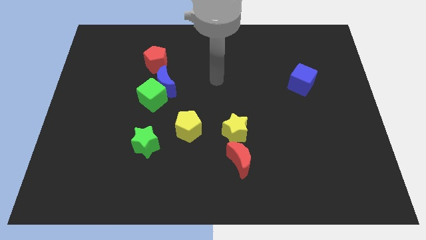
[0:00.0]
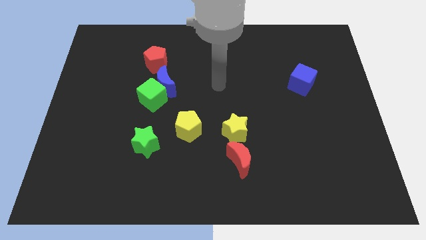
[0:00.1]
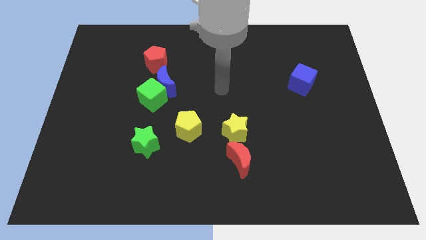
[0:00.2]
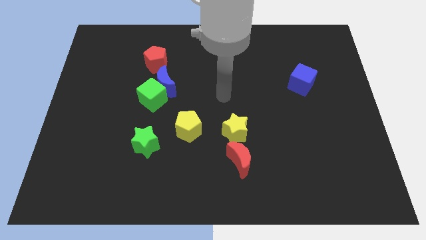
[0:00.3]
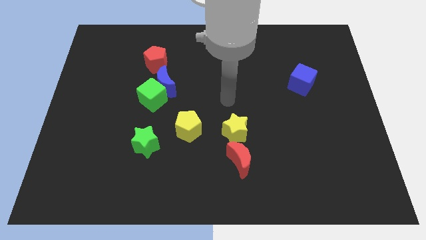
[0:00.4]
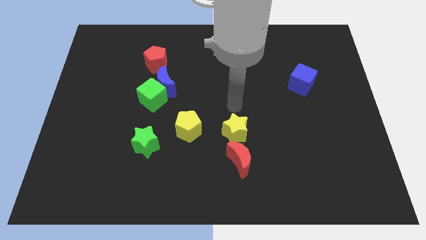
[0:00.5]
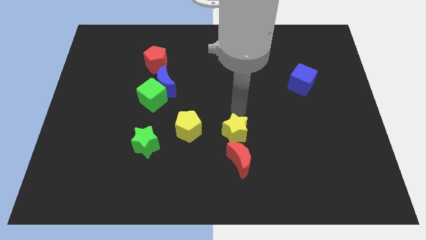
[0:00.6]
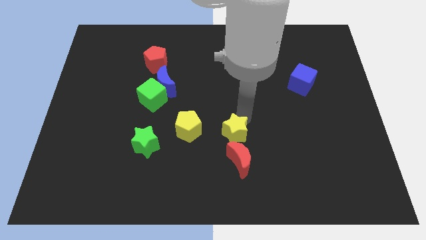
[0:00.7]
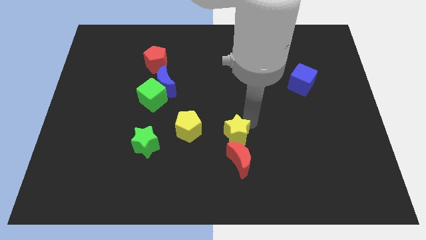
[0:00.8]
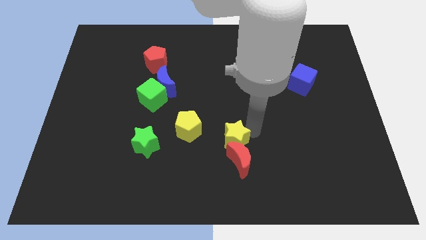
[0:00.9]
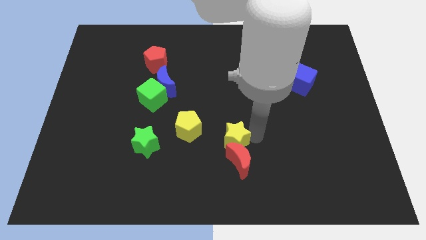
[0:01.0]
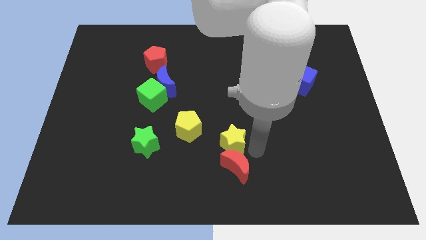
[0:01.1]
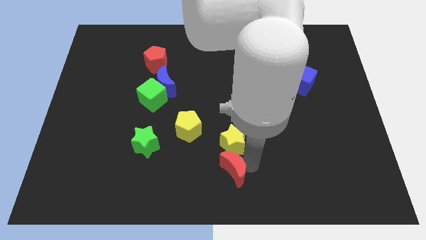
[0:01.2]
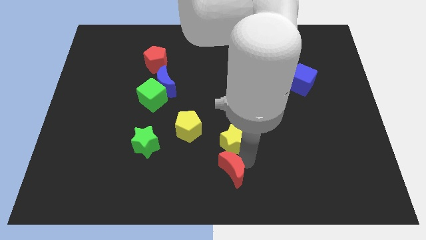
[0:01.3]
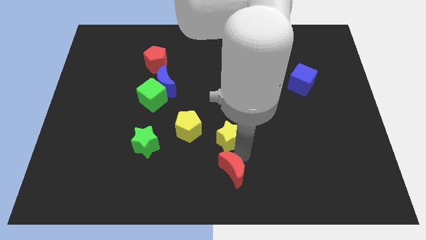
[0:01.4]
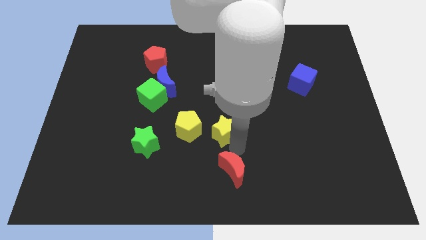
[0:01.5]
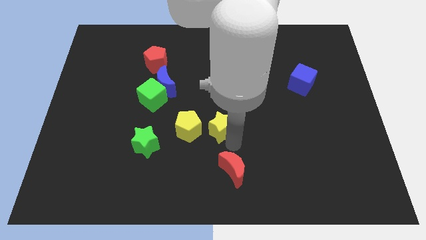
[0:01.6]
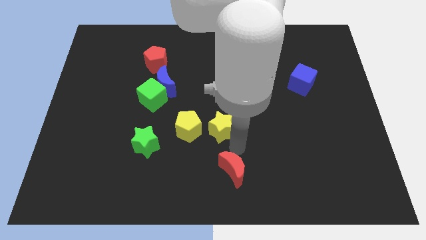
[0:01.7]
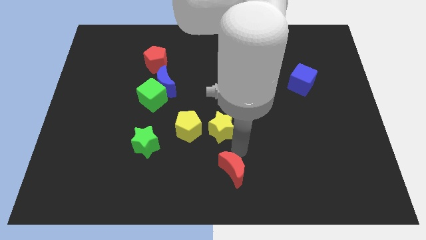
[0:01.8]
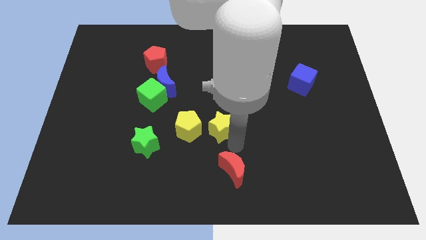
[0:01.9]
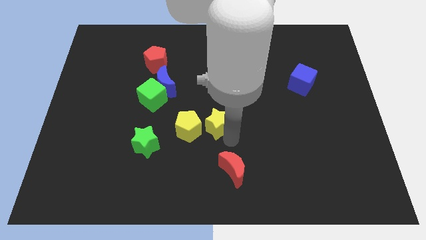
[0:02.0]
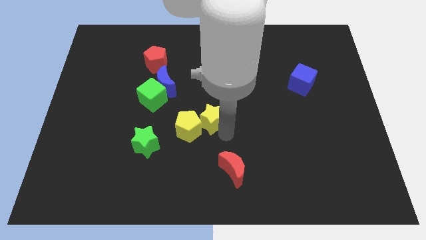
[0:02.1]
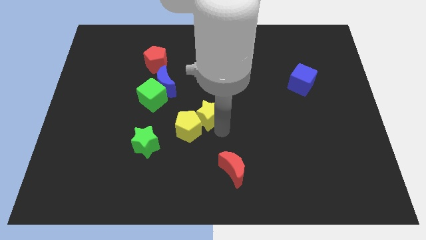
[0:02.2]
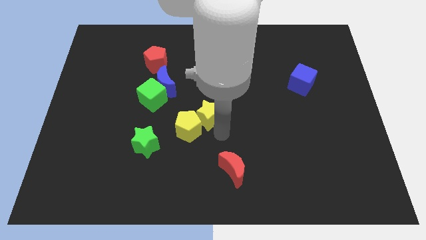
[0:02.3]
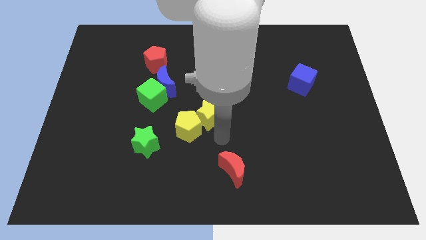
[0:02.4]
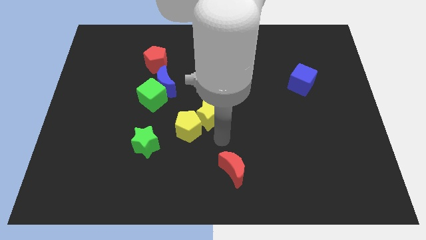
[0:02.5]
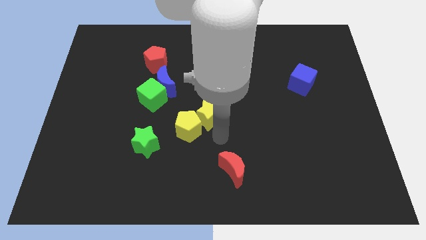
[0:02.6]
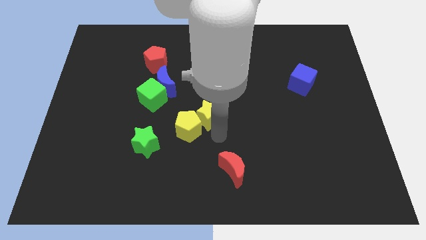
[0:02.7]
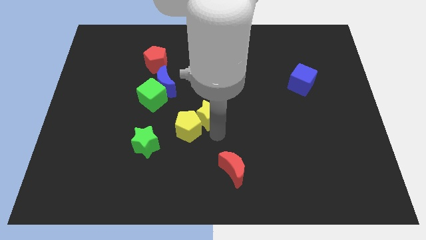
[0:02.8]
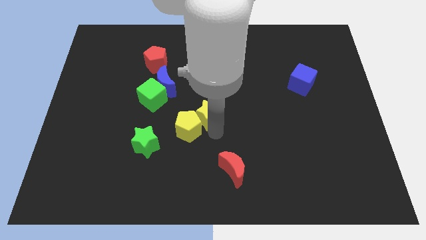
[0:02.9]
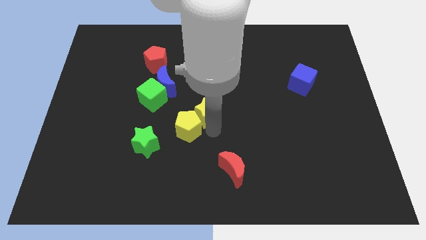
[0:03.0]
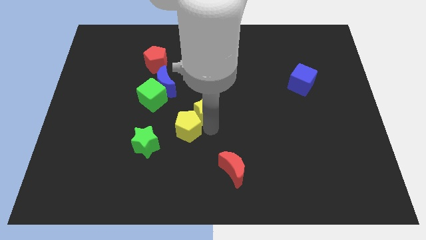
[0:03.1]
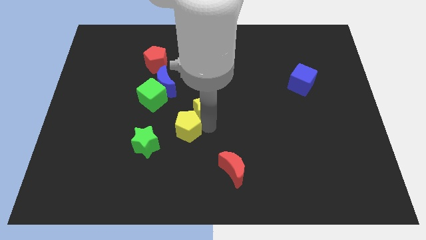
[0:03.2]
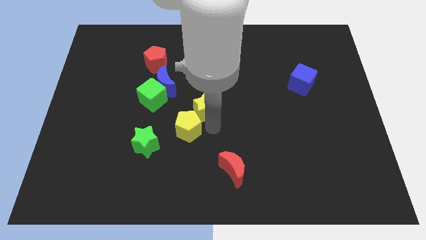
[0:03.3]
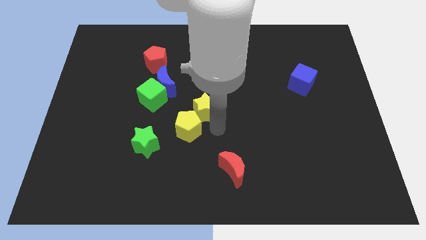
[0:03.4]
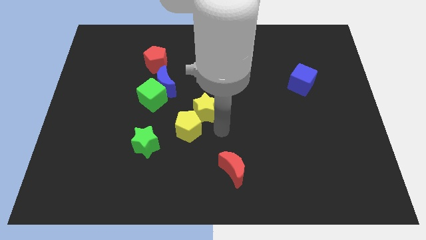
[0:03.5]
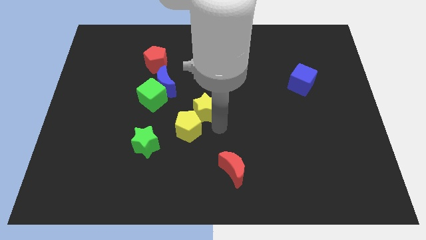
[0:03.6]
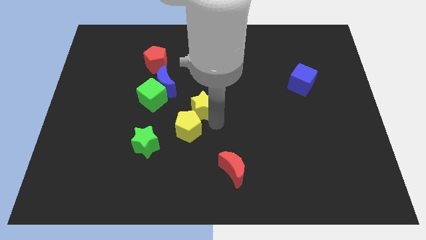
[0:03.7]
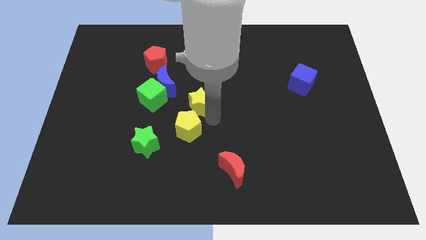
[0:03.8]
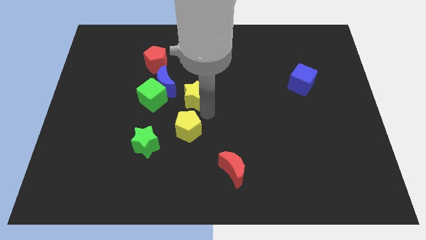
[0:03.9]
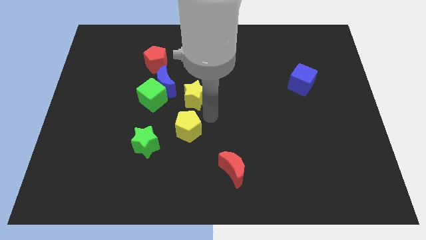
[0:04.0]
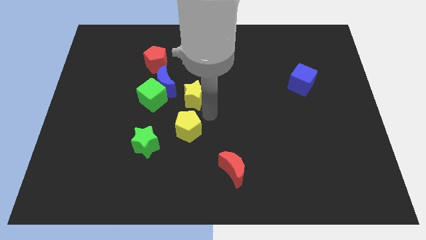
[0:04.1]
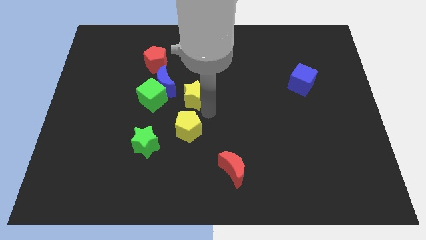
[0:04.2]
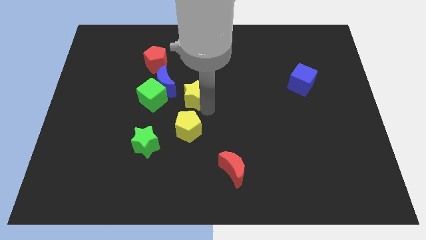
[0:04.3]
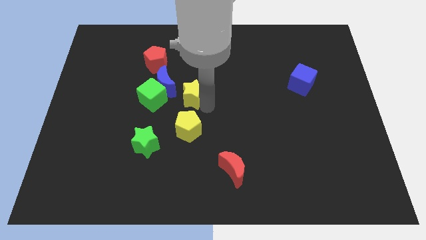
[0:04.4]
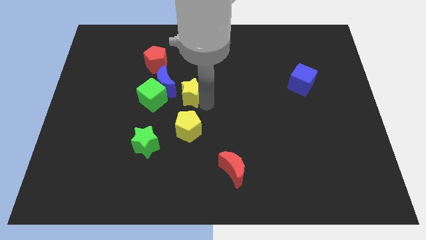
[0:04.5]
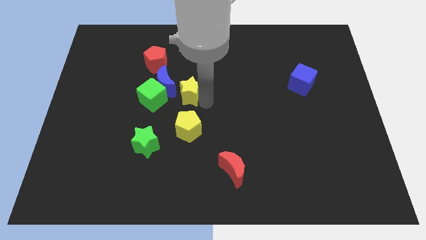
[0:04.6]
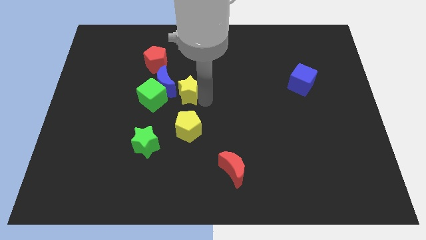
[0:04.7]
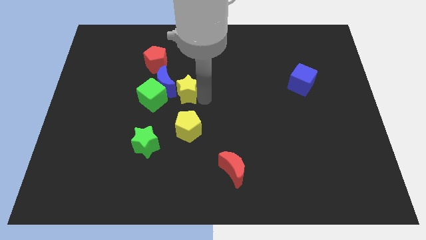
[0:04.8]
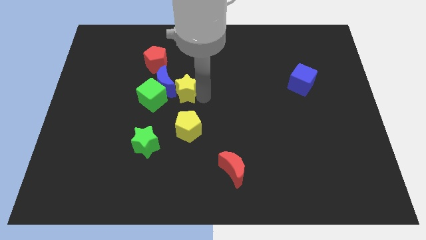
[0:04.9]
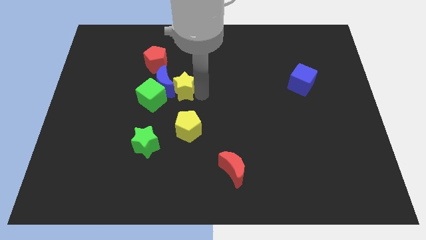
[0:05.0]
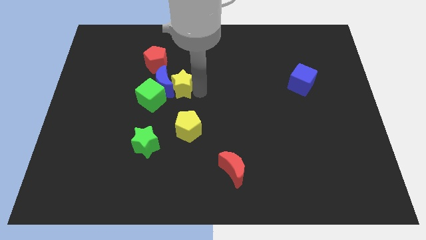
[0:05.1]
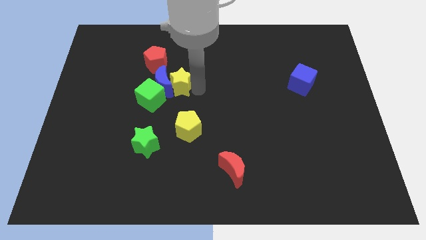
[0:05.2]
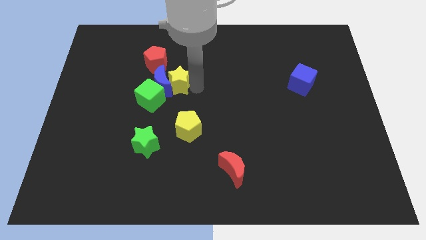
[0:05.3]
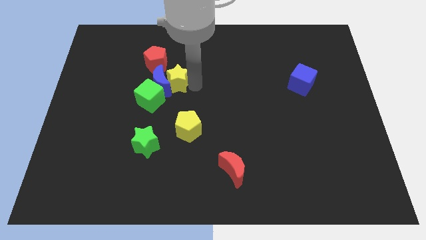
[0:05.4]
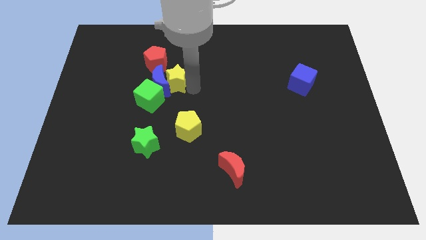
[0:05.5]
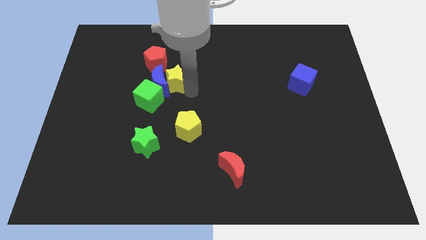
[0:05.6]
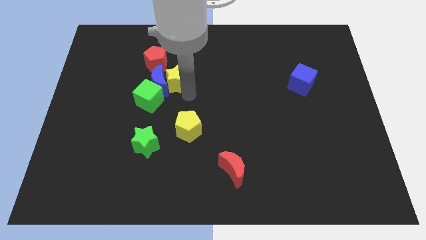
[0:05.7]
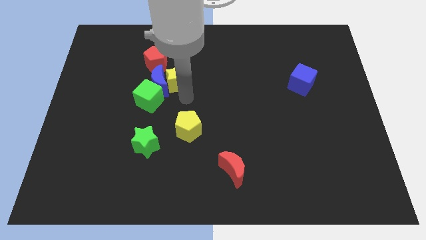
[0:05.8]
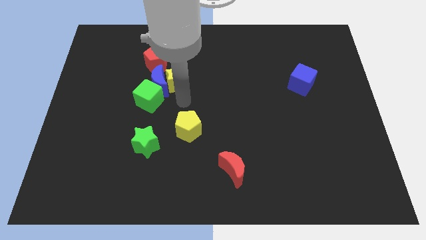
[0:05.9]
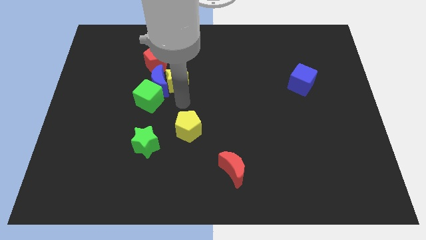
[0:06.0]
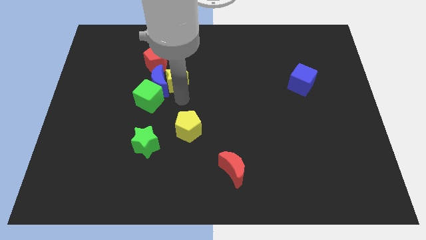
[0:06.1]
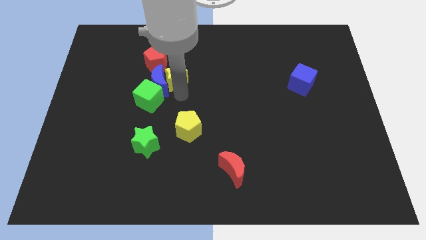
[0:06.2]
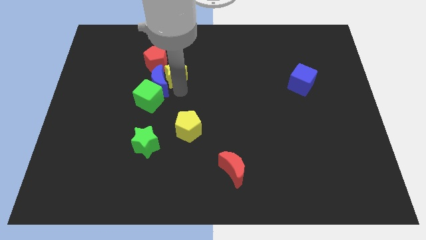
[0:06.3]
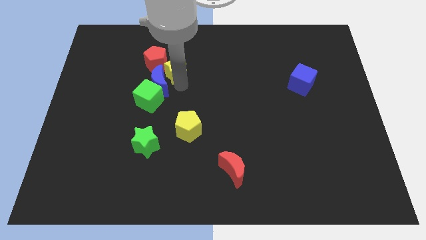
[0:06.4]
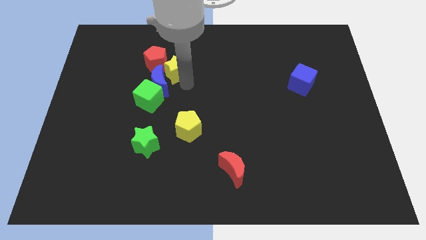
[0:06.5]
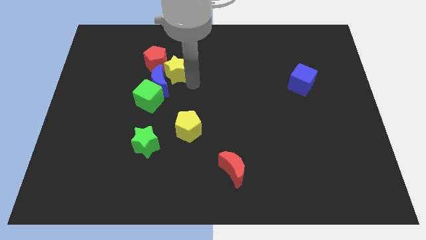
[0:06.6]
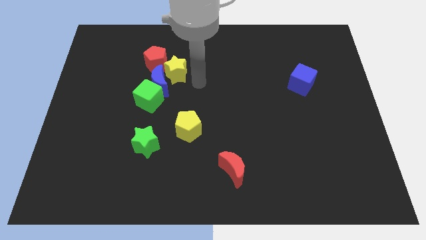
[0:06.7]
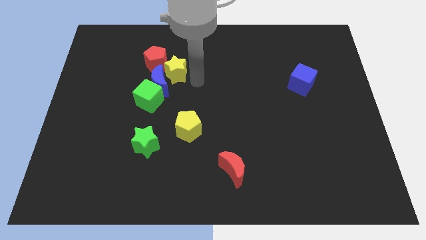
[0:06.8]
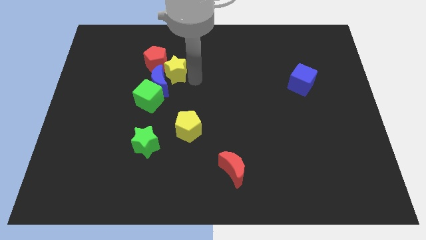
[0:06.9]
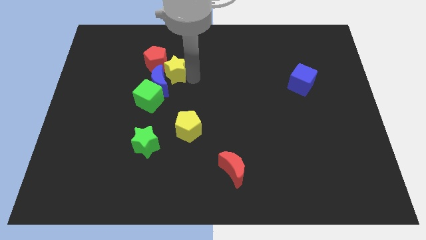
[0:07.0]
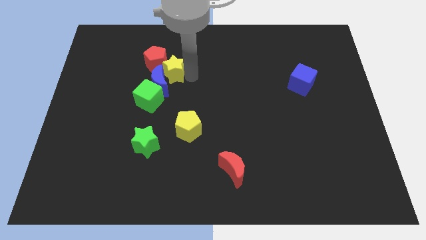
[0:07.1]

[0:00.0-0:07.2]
push the yellow star close to the red pentagon

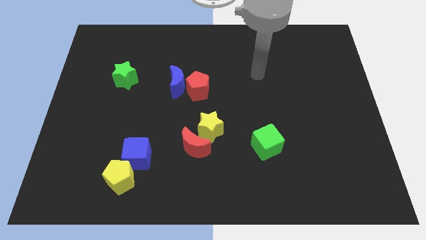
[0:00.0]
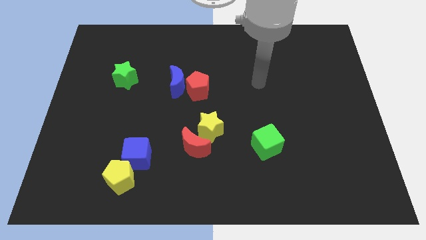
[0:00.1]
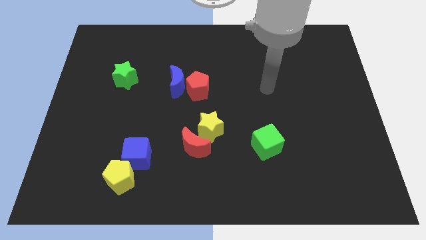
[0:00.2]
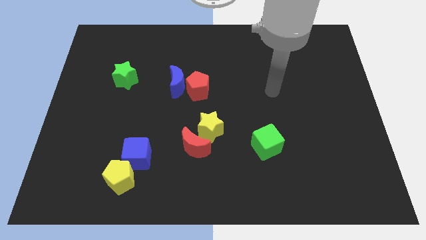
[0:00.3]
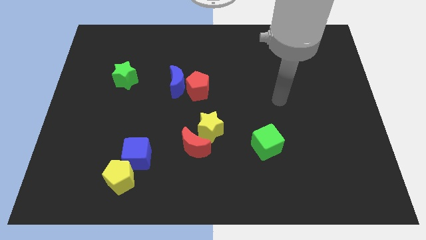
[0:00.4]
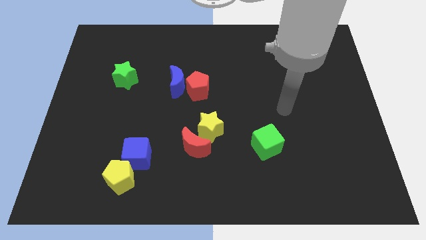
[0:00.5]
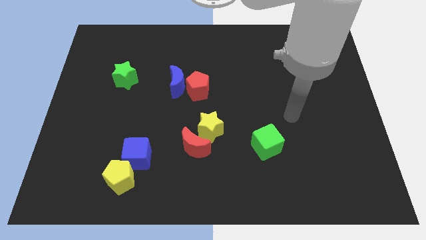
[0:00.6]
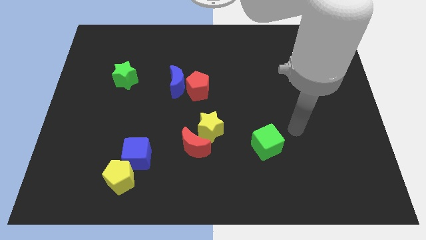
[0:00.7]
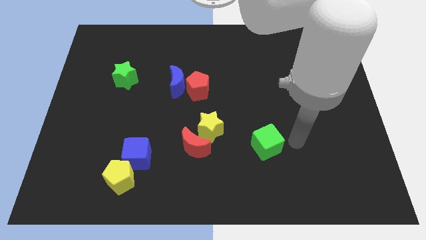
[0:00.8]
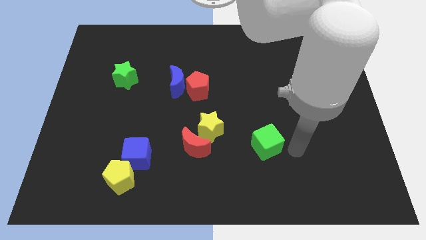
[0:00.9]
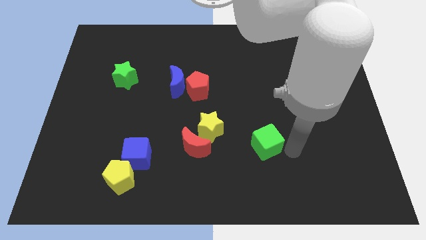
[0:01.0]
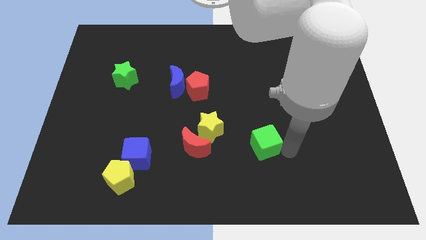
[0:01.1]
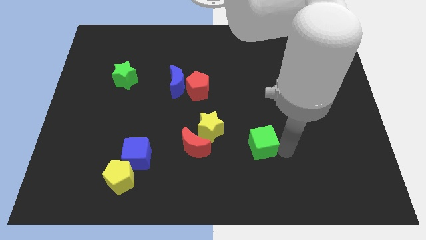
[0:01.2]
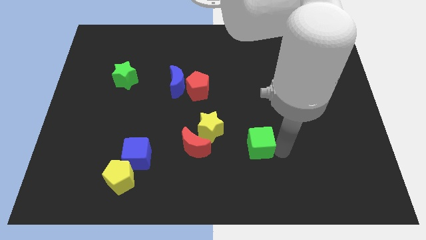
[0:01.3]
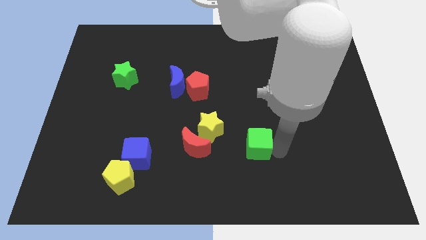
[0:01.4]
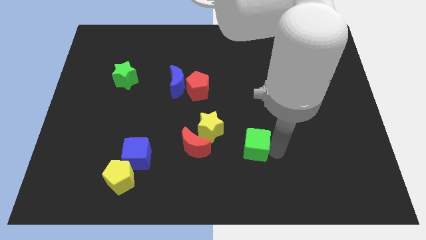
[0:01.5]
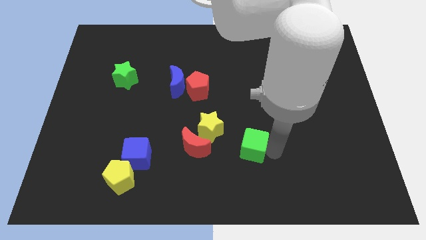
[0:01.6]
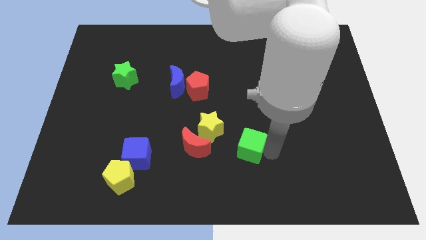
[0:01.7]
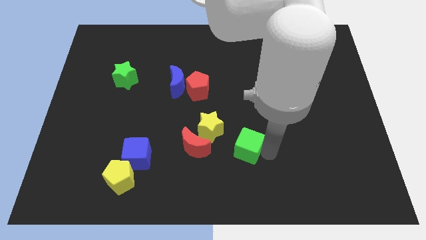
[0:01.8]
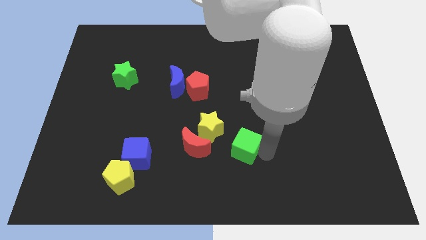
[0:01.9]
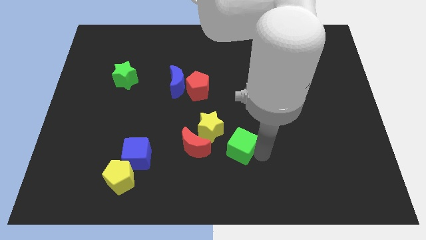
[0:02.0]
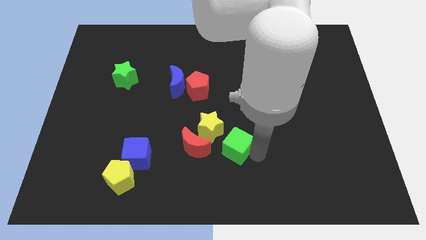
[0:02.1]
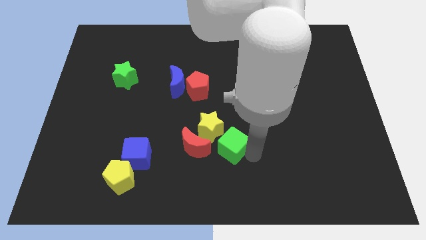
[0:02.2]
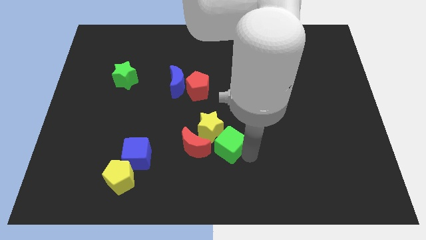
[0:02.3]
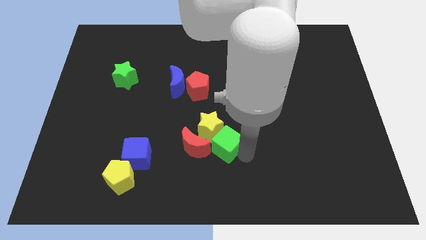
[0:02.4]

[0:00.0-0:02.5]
slide the green cube towards the yellow star
